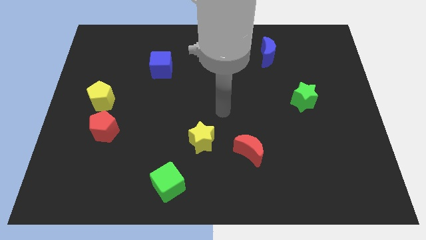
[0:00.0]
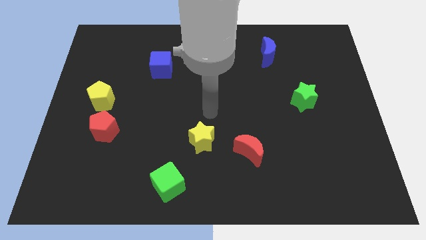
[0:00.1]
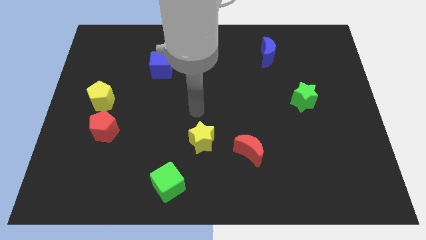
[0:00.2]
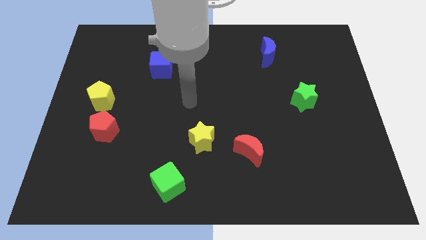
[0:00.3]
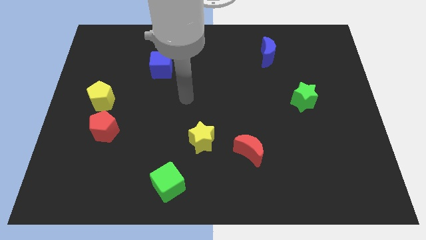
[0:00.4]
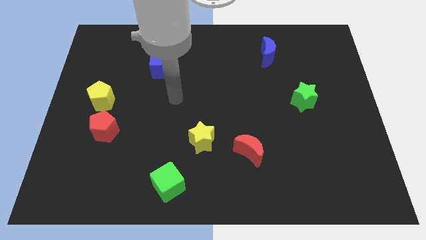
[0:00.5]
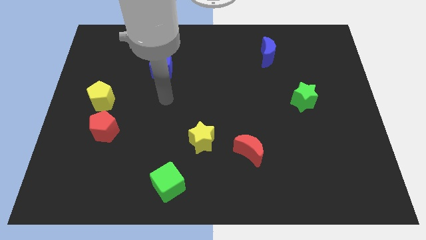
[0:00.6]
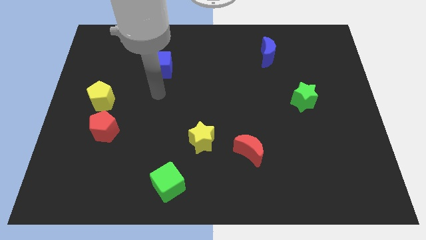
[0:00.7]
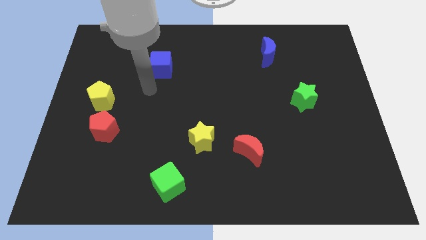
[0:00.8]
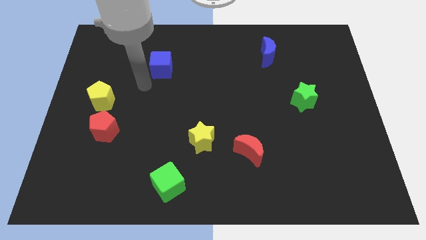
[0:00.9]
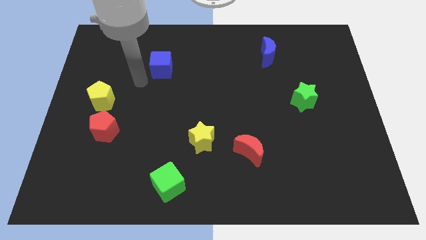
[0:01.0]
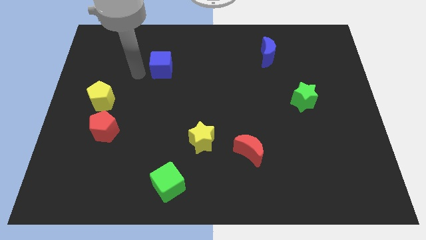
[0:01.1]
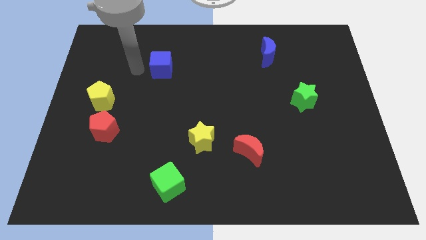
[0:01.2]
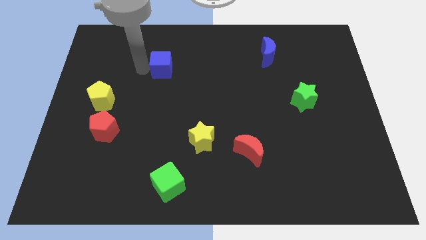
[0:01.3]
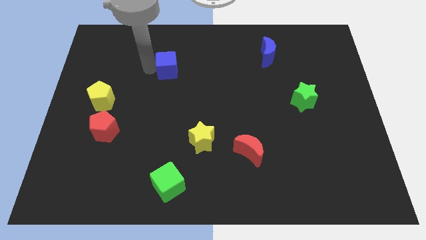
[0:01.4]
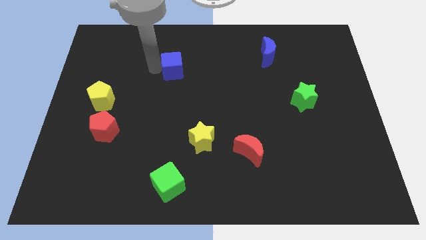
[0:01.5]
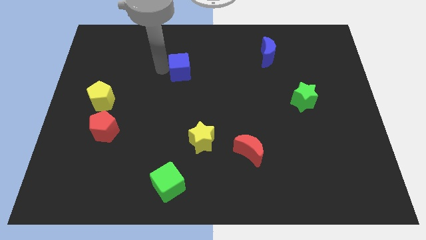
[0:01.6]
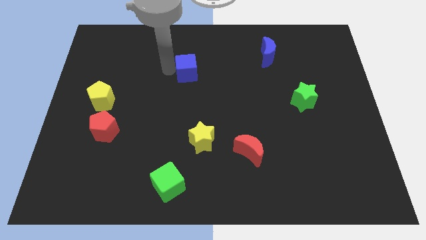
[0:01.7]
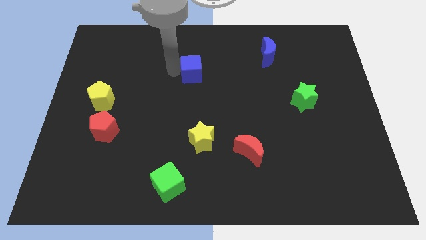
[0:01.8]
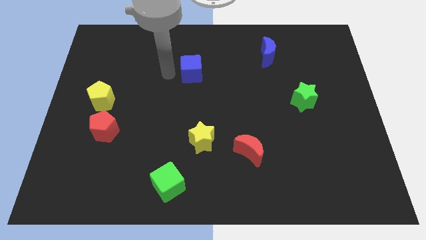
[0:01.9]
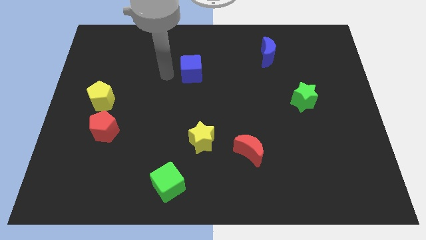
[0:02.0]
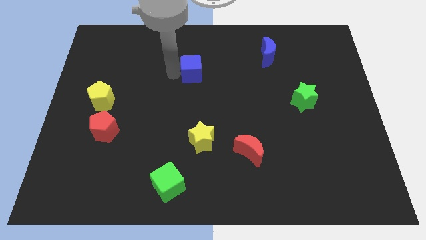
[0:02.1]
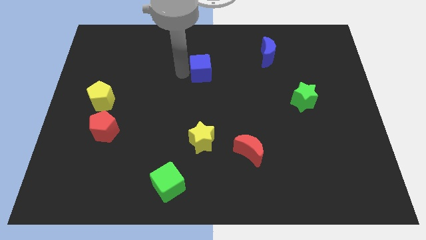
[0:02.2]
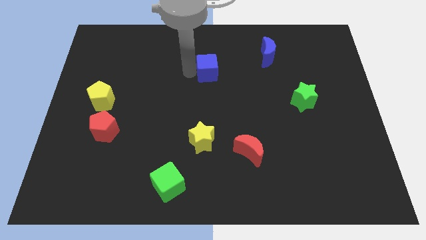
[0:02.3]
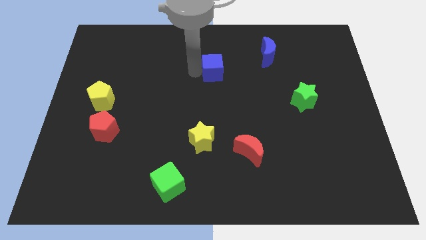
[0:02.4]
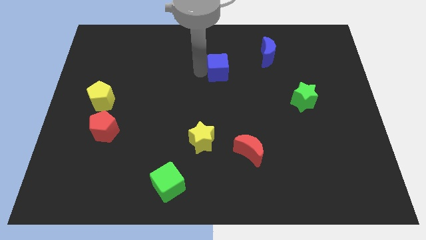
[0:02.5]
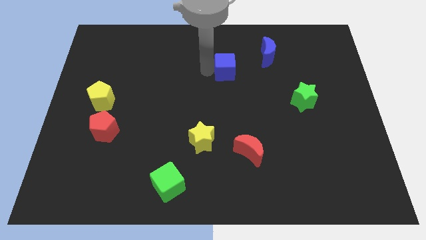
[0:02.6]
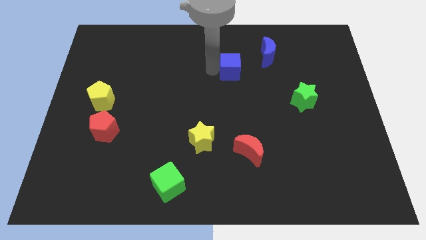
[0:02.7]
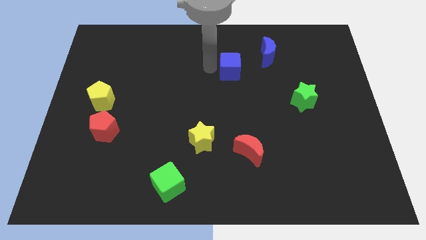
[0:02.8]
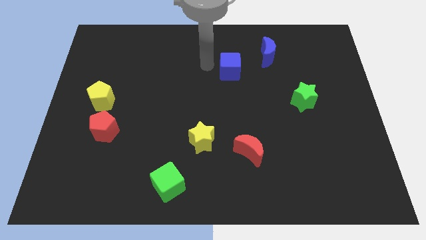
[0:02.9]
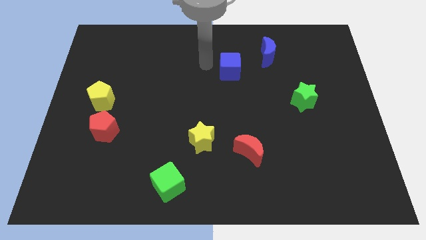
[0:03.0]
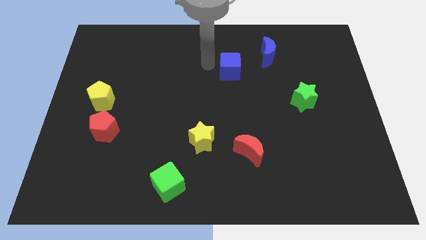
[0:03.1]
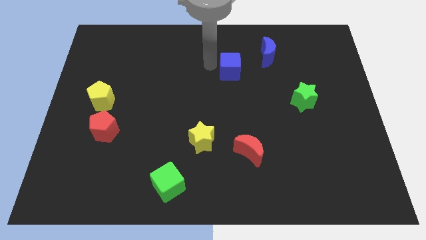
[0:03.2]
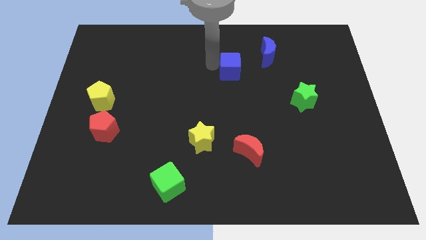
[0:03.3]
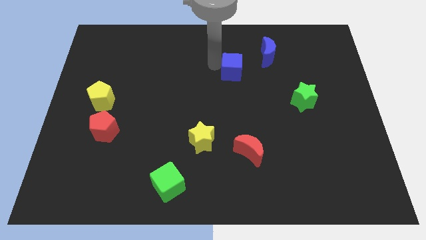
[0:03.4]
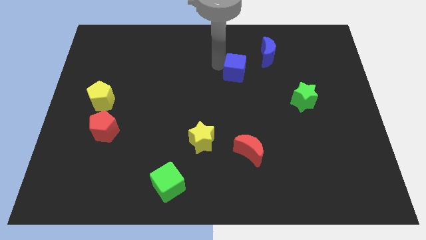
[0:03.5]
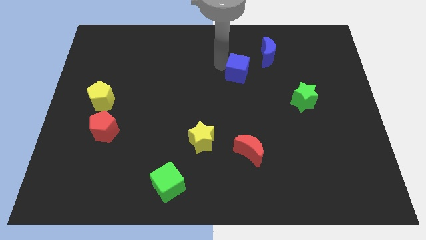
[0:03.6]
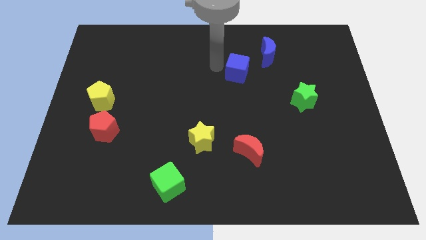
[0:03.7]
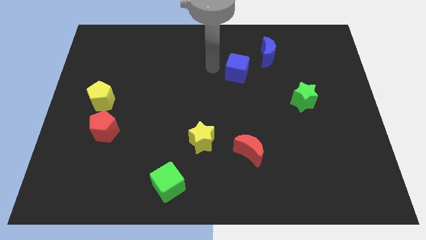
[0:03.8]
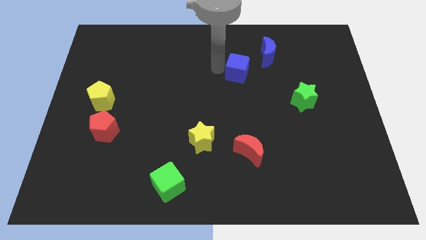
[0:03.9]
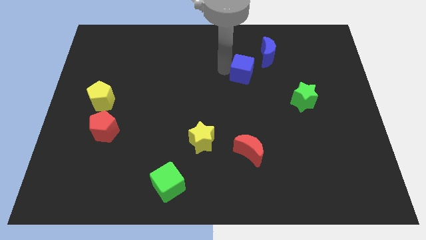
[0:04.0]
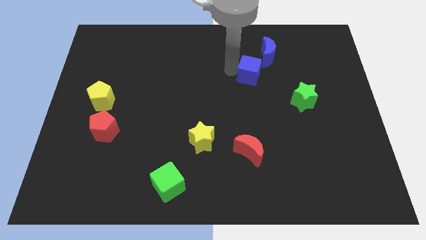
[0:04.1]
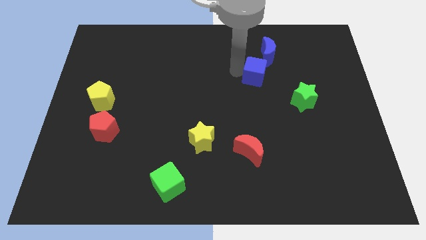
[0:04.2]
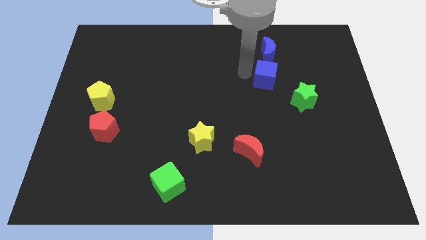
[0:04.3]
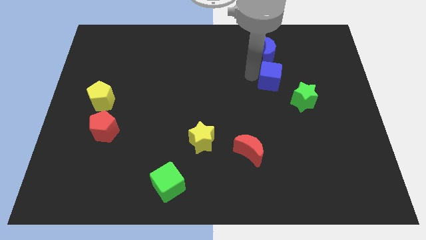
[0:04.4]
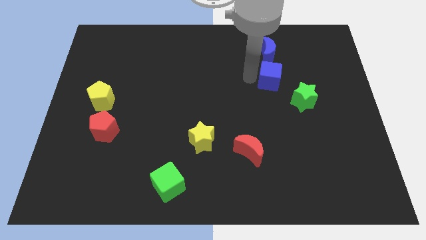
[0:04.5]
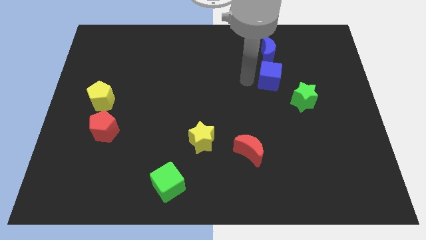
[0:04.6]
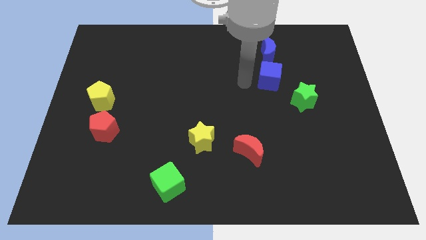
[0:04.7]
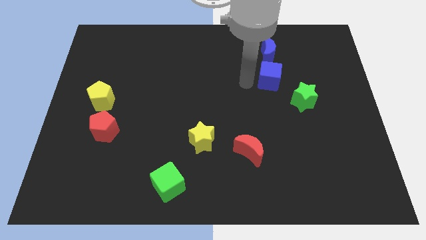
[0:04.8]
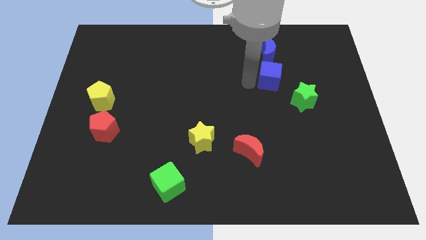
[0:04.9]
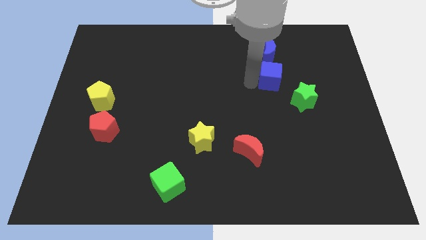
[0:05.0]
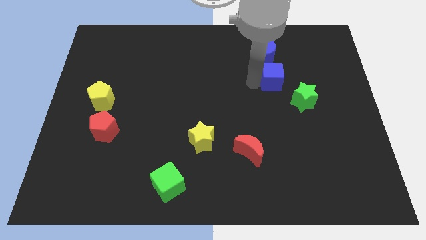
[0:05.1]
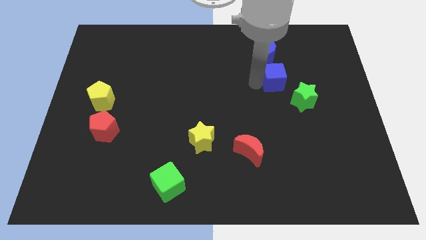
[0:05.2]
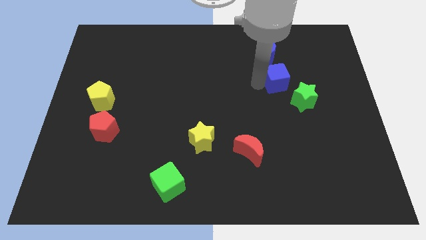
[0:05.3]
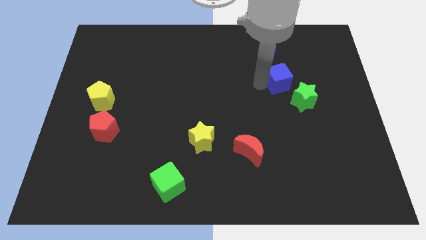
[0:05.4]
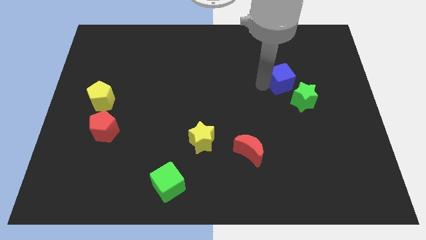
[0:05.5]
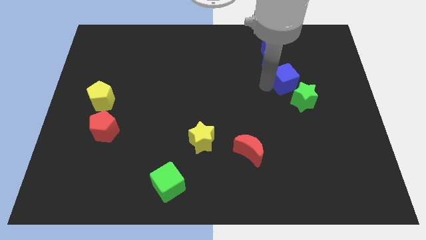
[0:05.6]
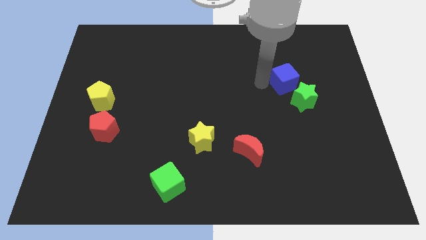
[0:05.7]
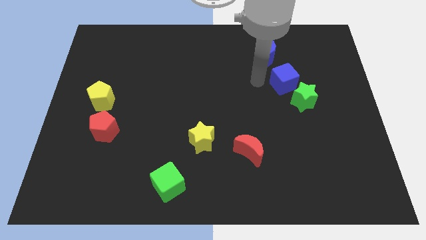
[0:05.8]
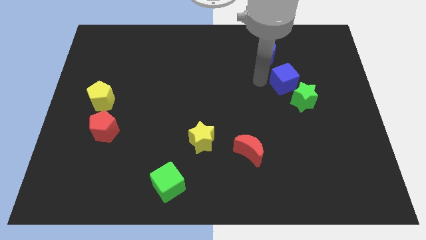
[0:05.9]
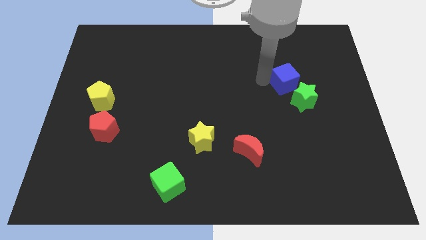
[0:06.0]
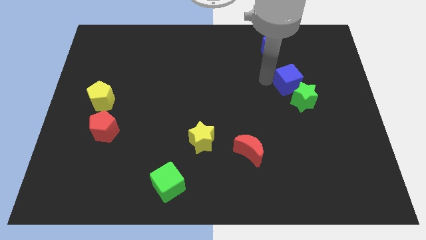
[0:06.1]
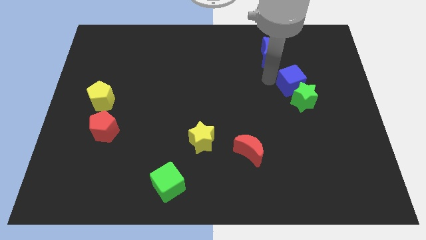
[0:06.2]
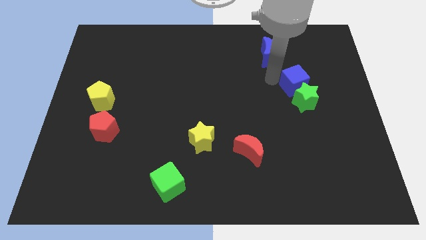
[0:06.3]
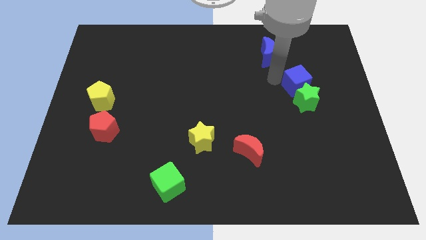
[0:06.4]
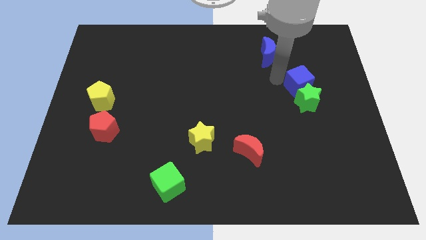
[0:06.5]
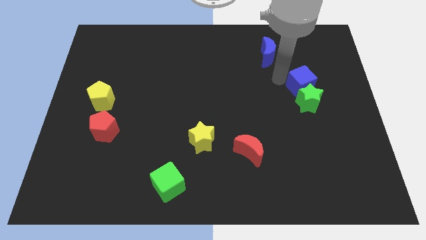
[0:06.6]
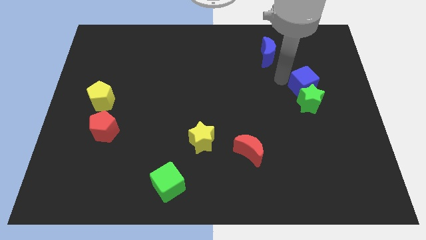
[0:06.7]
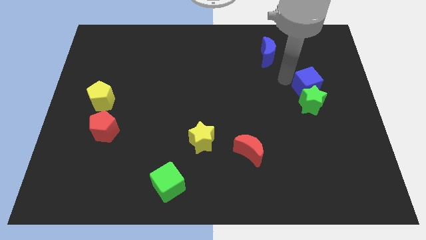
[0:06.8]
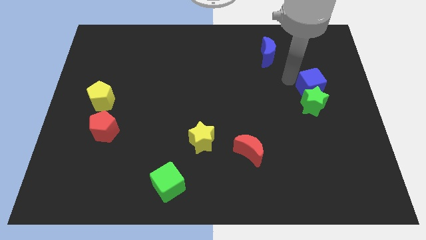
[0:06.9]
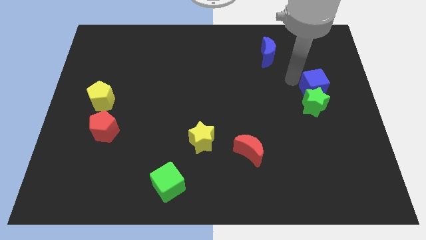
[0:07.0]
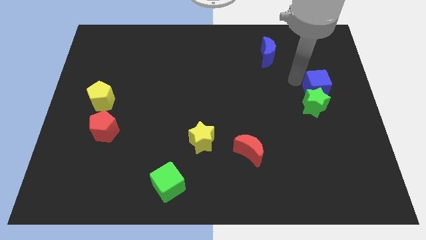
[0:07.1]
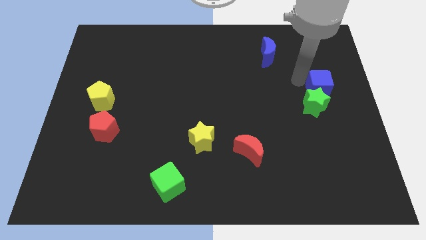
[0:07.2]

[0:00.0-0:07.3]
put the blue cube to the right side
